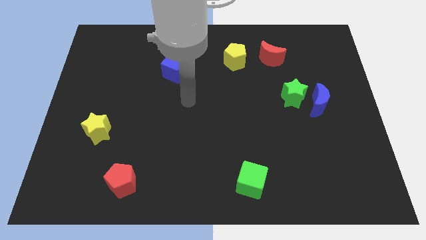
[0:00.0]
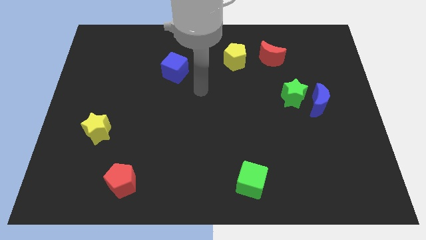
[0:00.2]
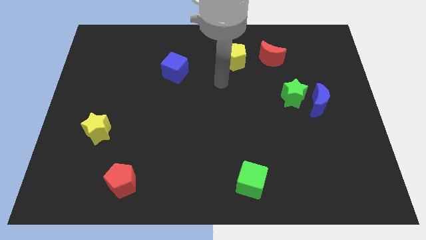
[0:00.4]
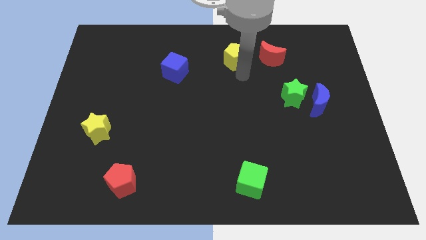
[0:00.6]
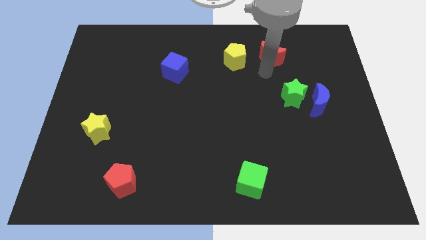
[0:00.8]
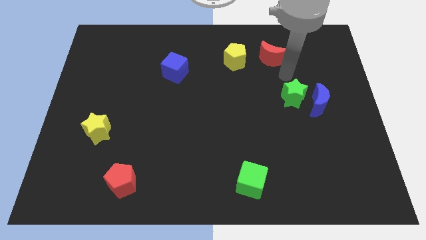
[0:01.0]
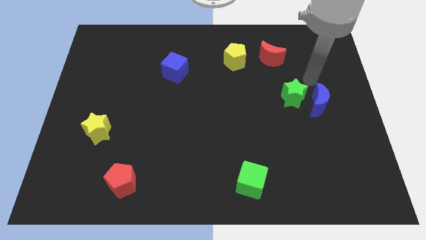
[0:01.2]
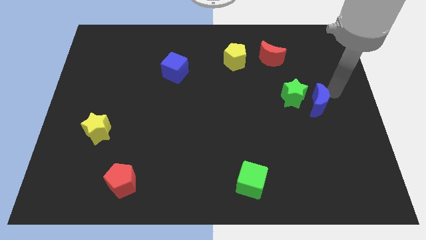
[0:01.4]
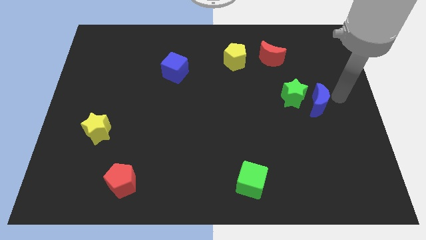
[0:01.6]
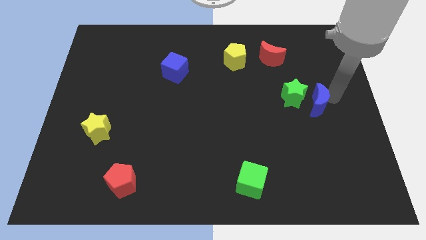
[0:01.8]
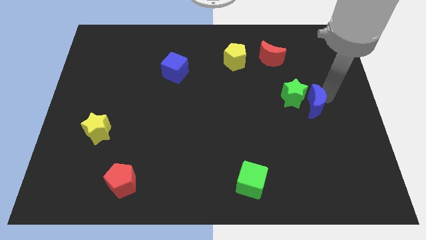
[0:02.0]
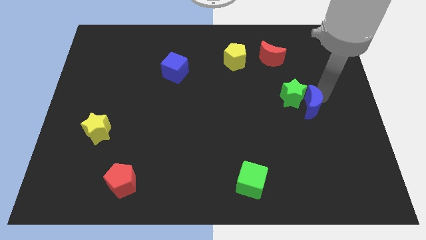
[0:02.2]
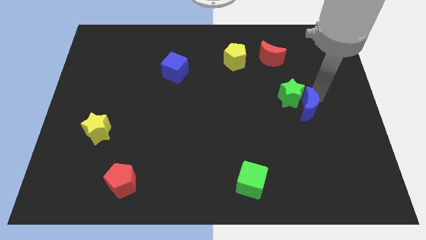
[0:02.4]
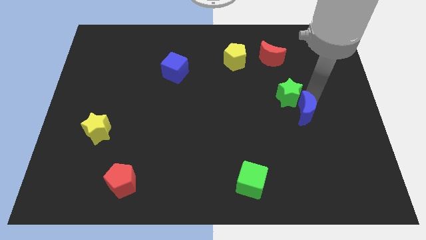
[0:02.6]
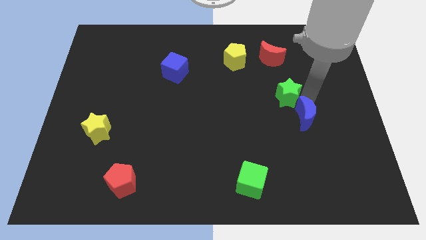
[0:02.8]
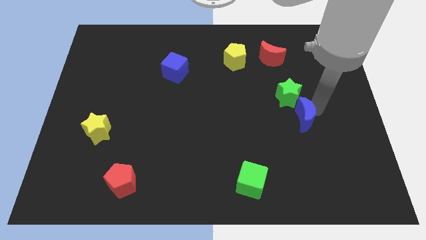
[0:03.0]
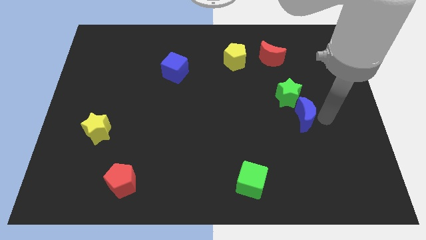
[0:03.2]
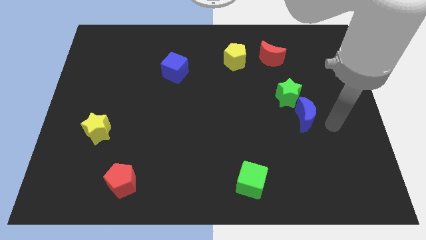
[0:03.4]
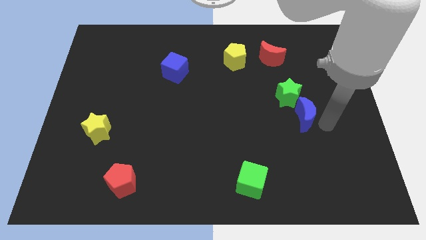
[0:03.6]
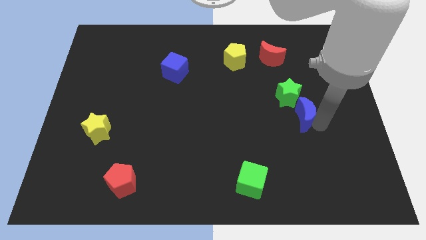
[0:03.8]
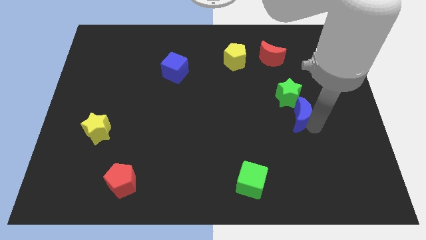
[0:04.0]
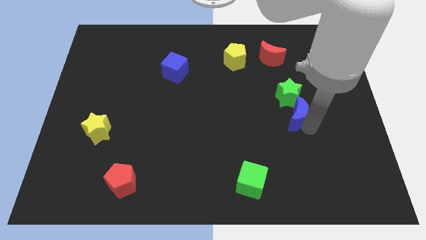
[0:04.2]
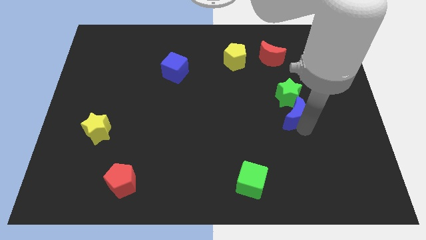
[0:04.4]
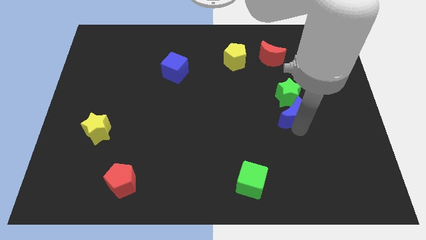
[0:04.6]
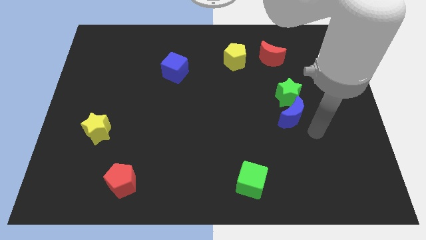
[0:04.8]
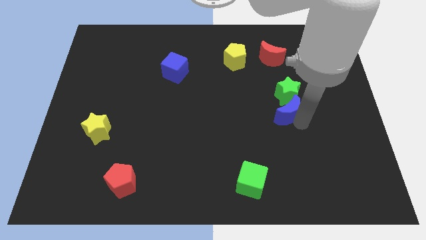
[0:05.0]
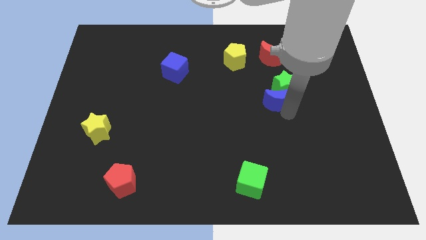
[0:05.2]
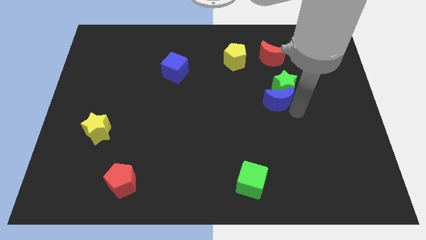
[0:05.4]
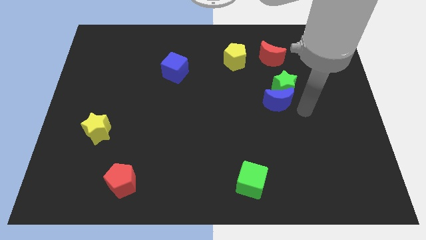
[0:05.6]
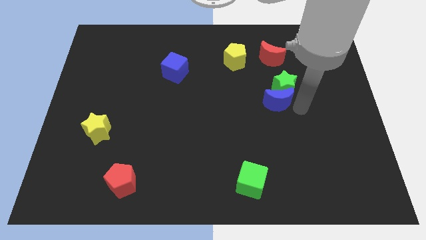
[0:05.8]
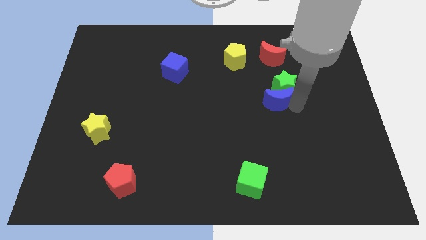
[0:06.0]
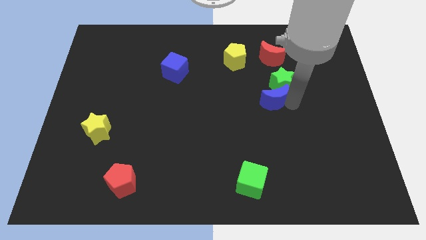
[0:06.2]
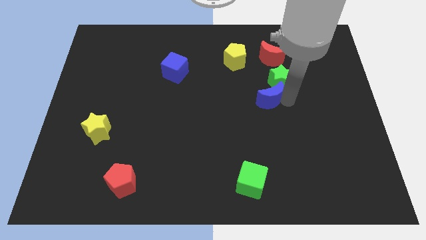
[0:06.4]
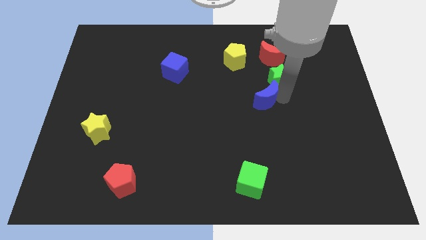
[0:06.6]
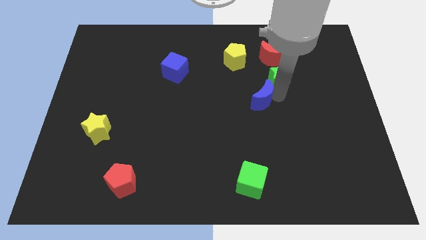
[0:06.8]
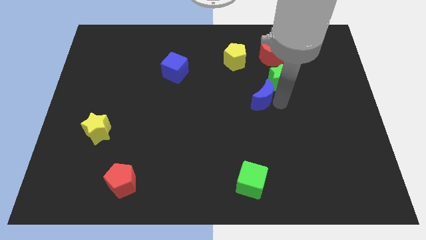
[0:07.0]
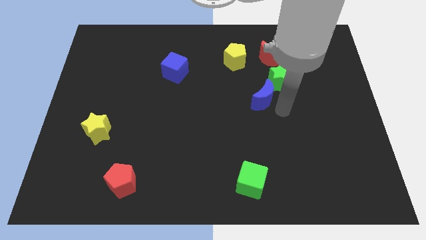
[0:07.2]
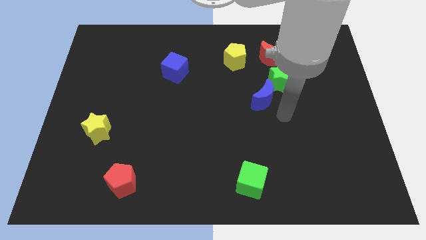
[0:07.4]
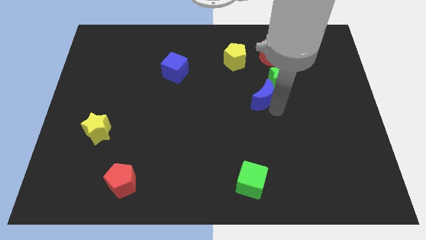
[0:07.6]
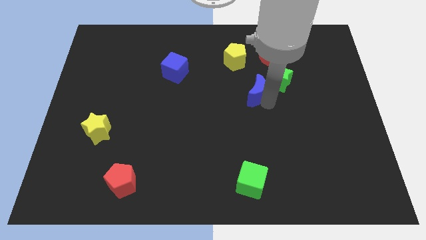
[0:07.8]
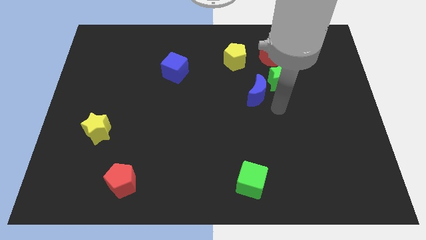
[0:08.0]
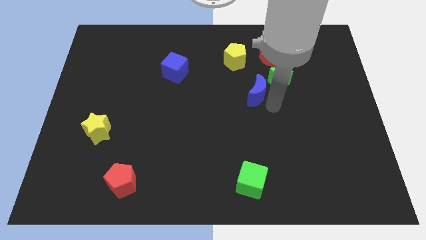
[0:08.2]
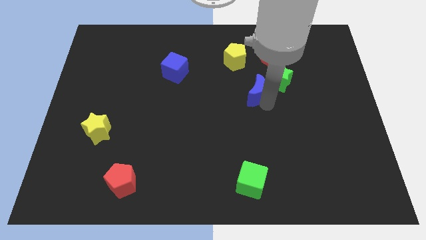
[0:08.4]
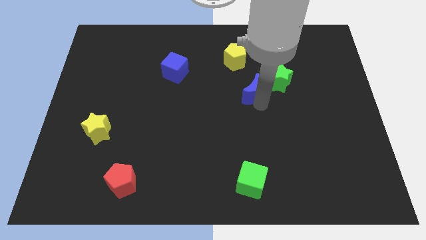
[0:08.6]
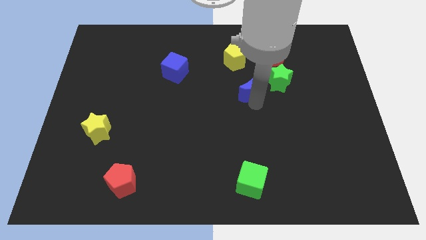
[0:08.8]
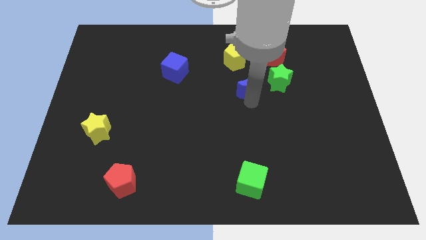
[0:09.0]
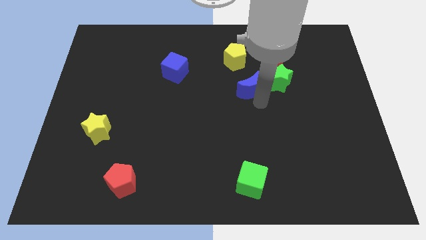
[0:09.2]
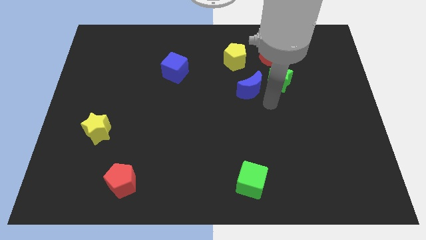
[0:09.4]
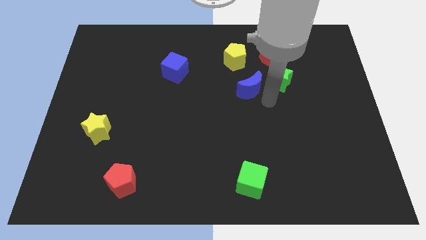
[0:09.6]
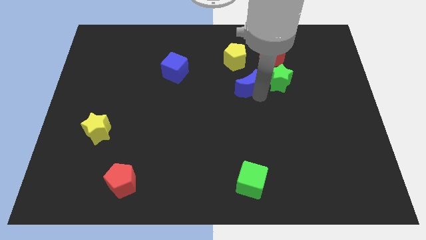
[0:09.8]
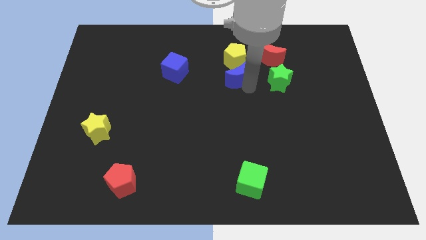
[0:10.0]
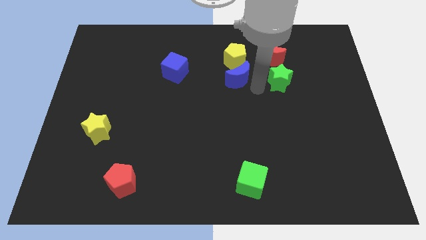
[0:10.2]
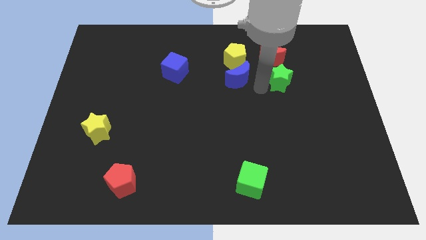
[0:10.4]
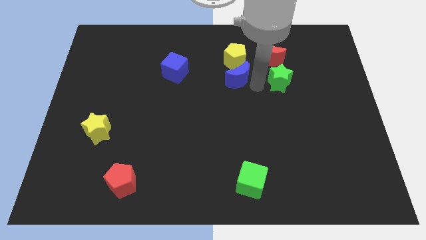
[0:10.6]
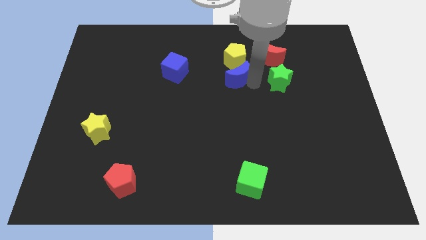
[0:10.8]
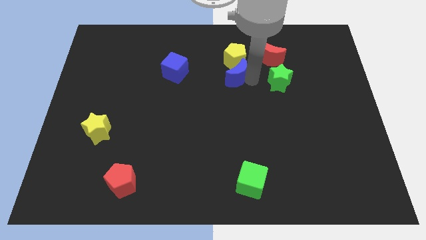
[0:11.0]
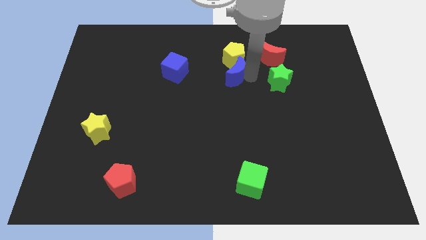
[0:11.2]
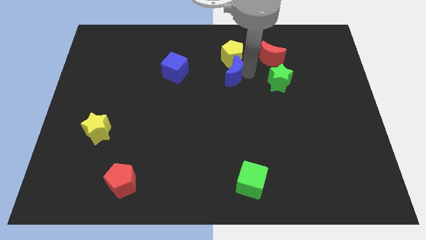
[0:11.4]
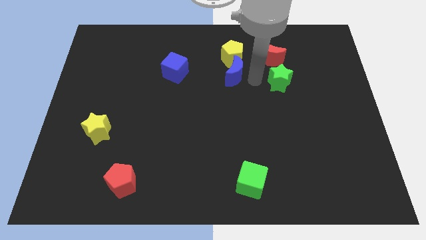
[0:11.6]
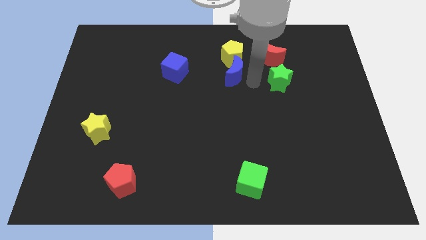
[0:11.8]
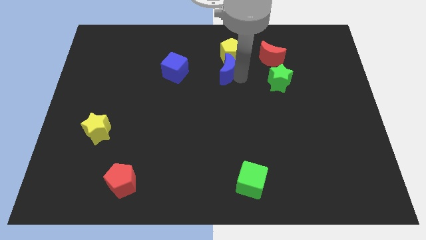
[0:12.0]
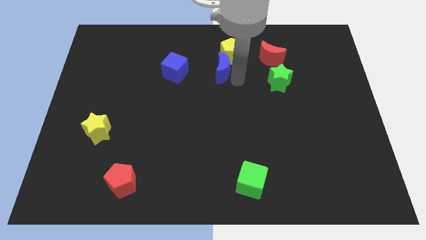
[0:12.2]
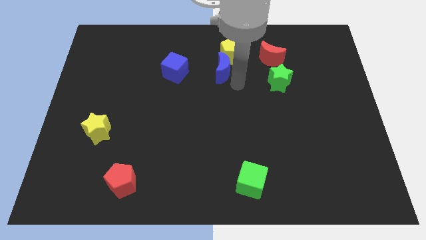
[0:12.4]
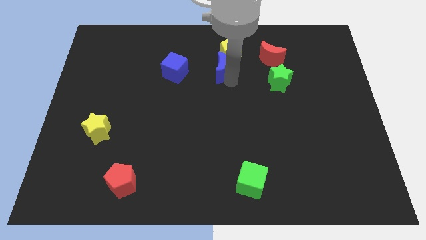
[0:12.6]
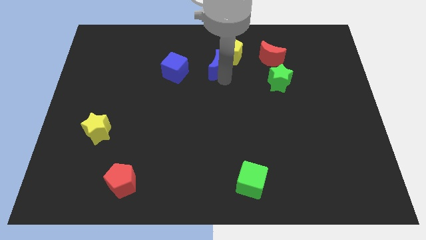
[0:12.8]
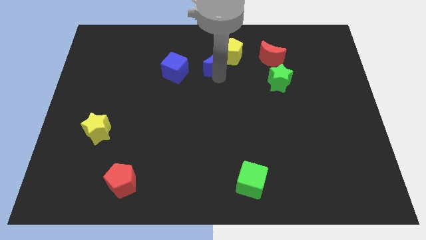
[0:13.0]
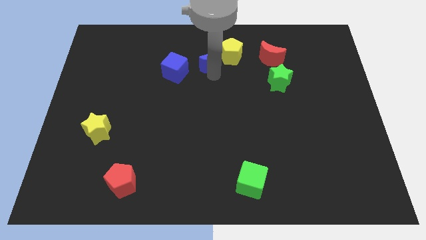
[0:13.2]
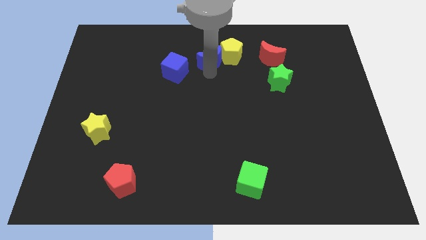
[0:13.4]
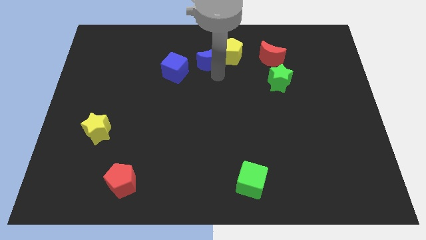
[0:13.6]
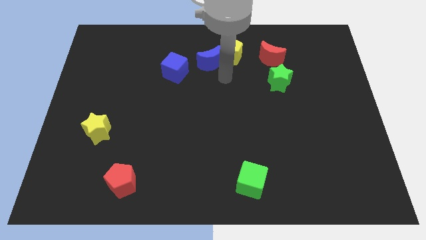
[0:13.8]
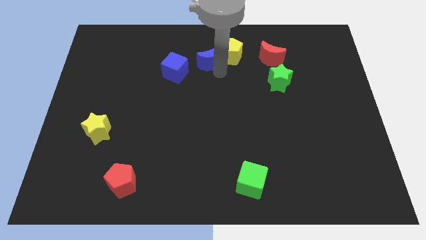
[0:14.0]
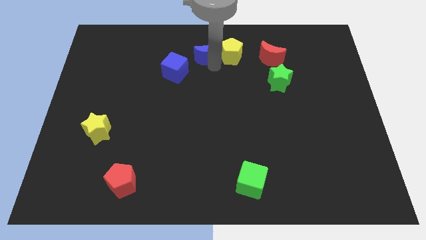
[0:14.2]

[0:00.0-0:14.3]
push the blue moon to the top
